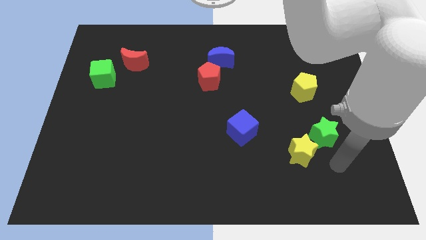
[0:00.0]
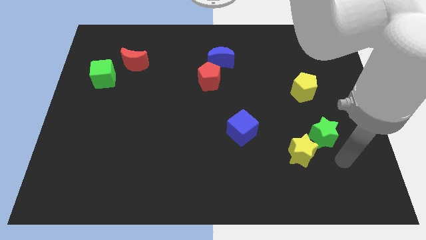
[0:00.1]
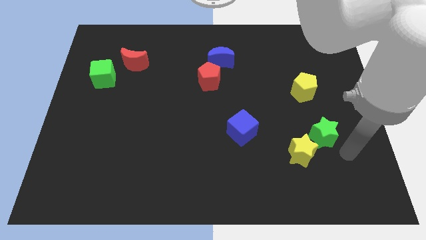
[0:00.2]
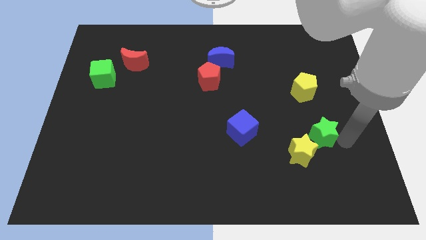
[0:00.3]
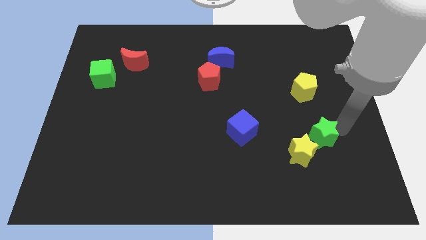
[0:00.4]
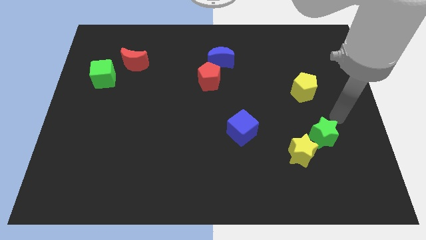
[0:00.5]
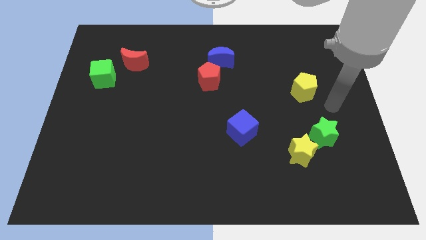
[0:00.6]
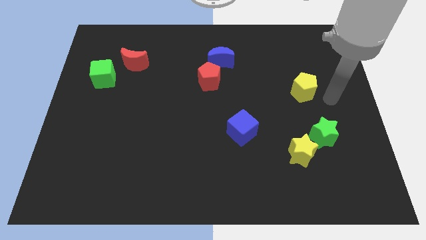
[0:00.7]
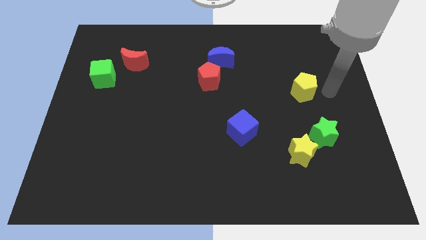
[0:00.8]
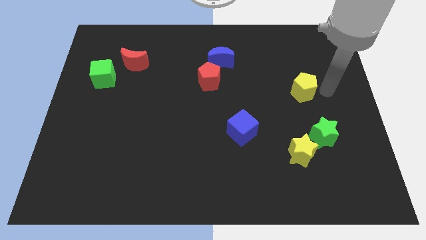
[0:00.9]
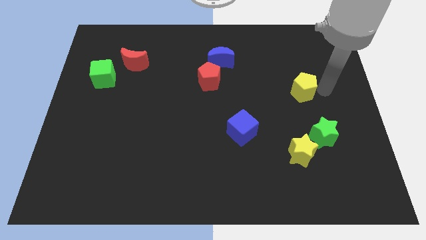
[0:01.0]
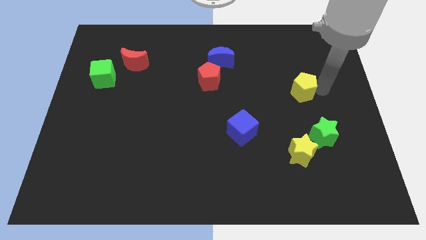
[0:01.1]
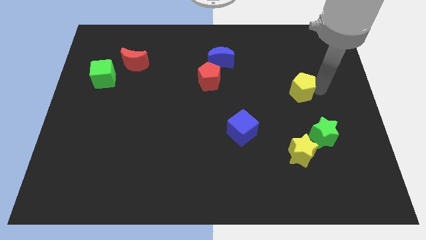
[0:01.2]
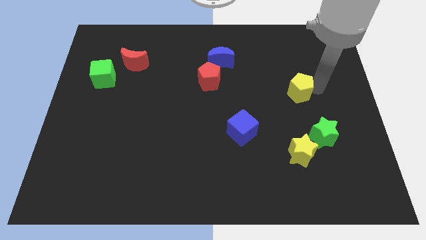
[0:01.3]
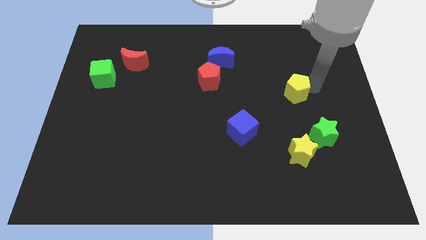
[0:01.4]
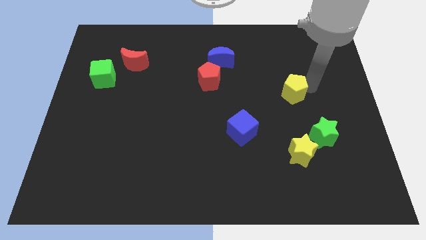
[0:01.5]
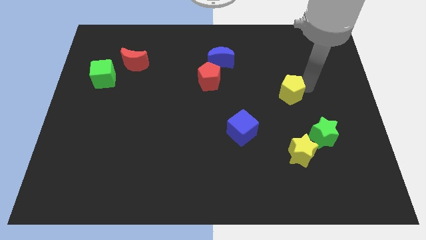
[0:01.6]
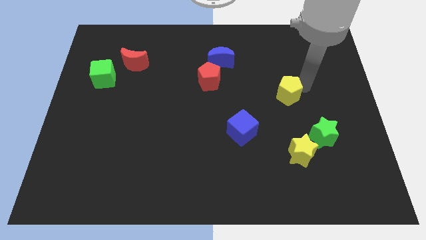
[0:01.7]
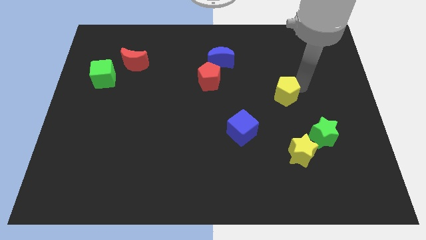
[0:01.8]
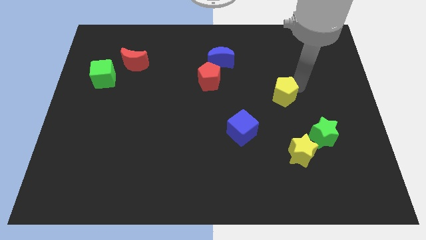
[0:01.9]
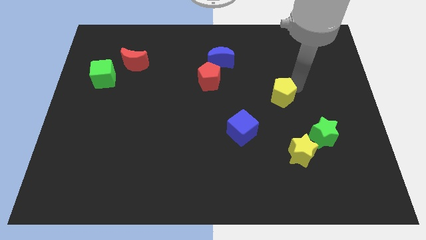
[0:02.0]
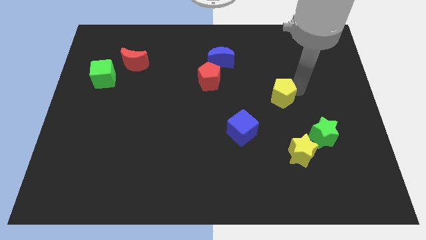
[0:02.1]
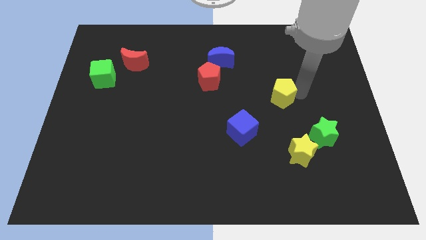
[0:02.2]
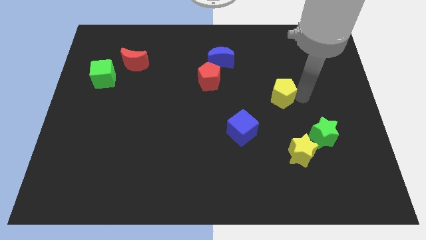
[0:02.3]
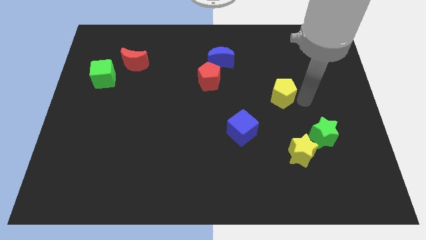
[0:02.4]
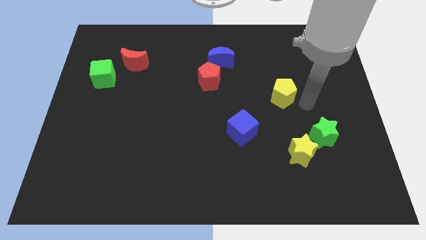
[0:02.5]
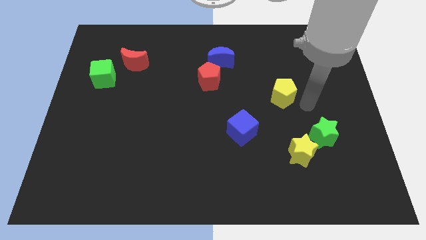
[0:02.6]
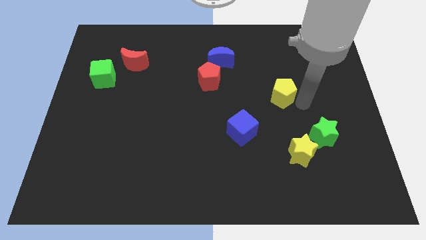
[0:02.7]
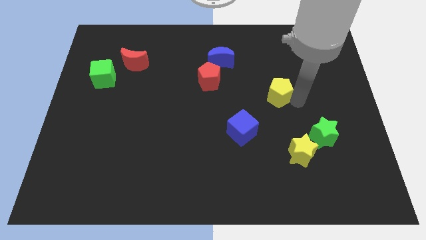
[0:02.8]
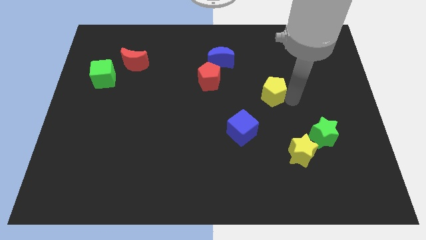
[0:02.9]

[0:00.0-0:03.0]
move the yellow pentagon to the left a bit

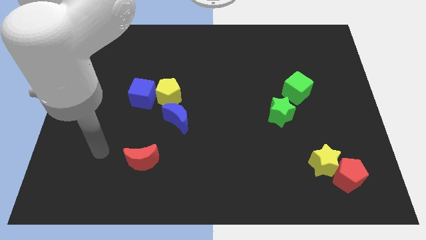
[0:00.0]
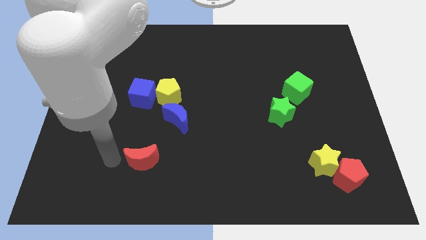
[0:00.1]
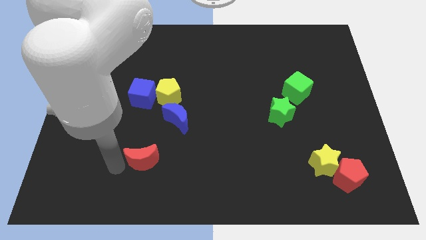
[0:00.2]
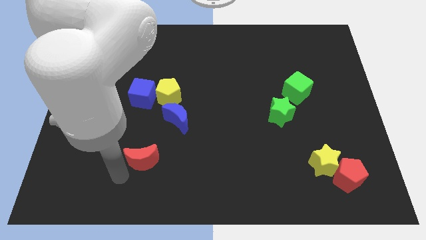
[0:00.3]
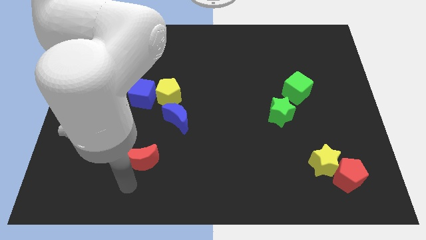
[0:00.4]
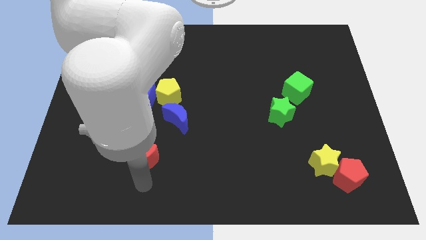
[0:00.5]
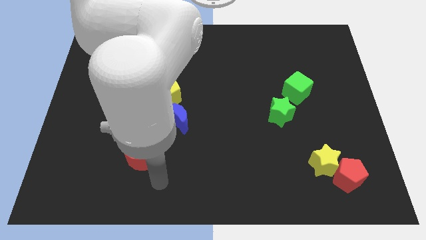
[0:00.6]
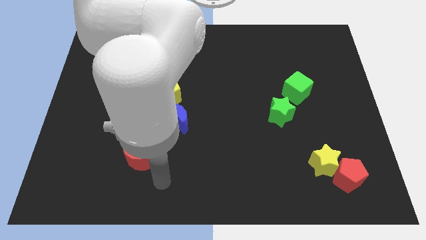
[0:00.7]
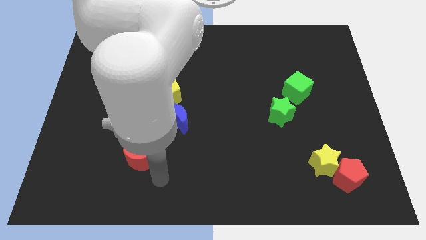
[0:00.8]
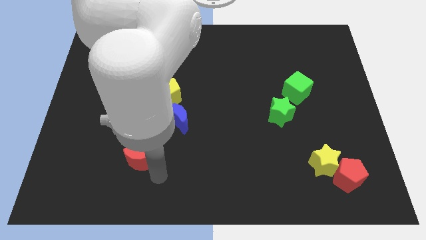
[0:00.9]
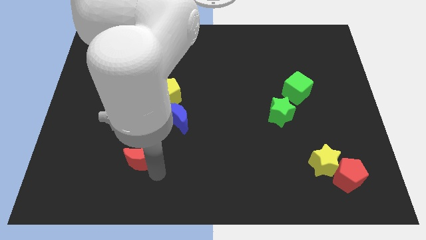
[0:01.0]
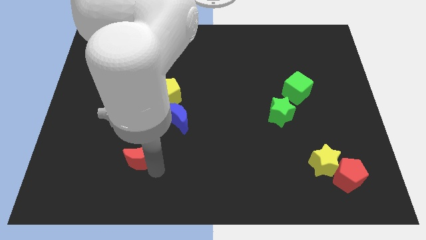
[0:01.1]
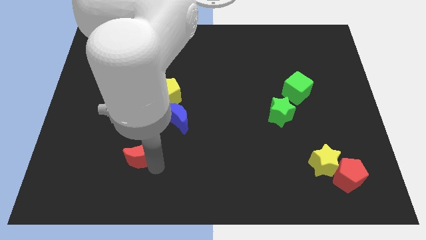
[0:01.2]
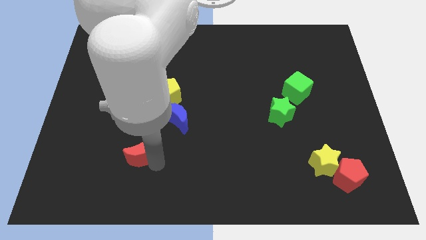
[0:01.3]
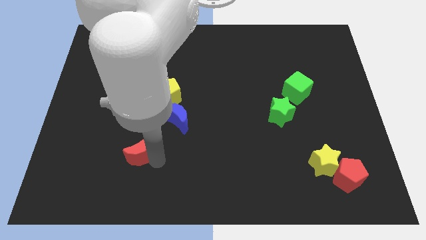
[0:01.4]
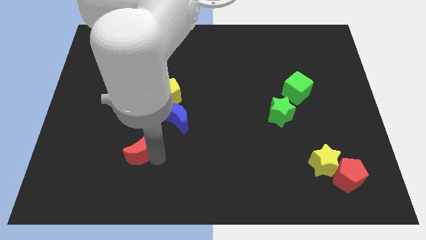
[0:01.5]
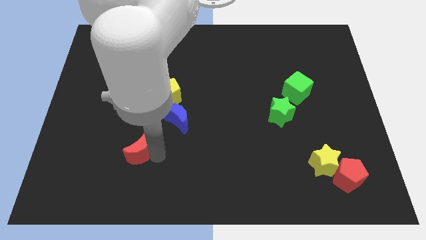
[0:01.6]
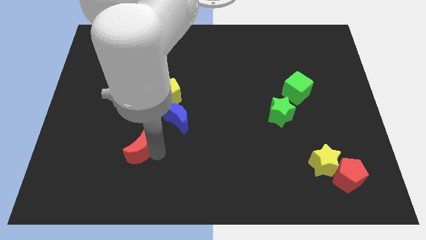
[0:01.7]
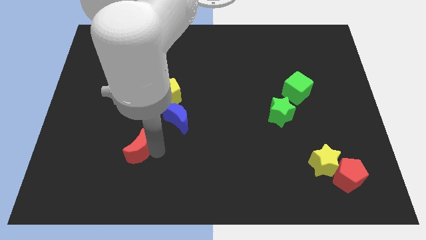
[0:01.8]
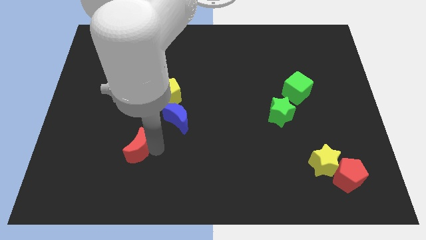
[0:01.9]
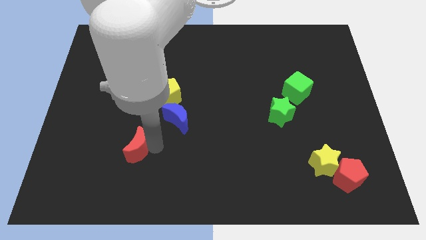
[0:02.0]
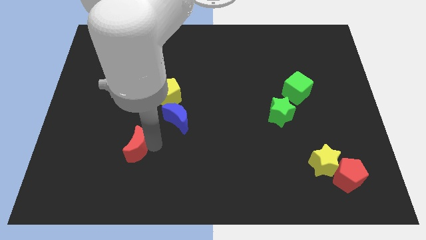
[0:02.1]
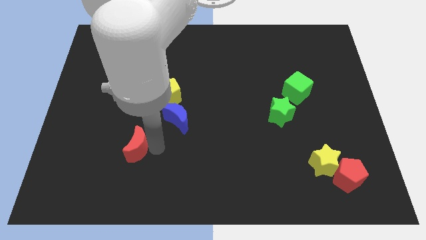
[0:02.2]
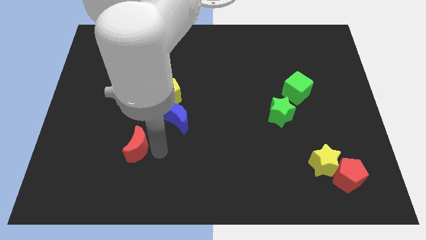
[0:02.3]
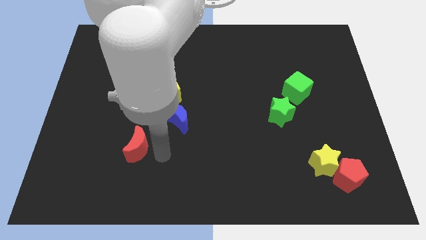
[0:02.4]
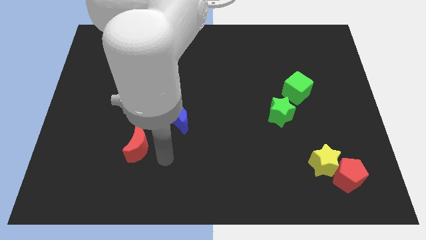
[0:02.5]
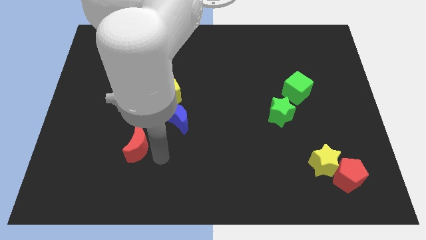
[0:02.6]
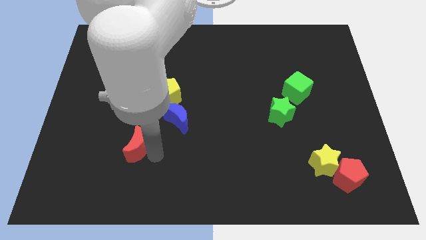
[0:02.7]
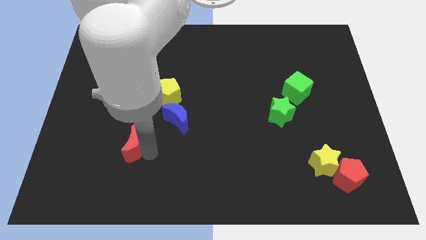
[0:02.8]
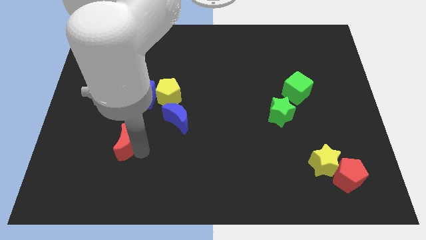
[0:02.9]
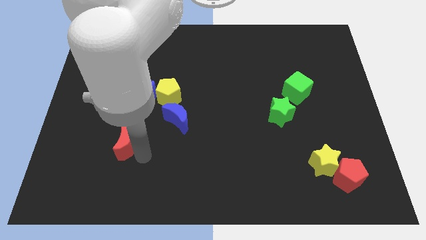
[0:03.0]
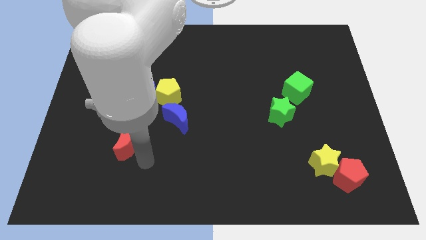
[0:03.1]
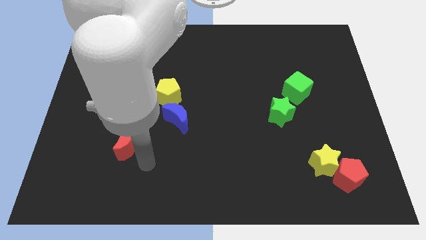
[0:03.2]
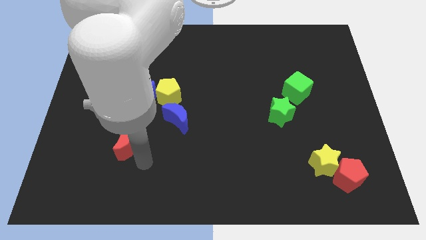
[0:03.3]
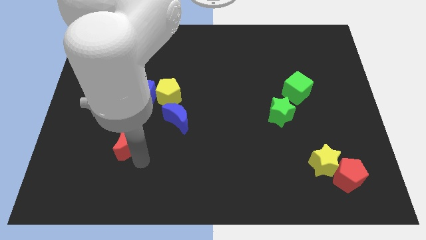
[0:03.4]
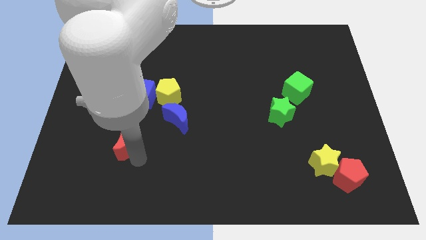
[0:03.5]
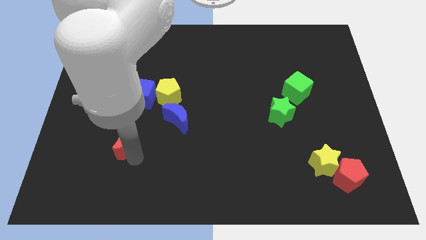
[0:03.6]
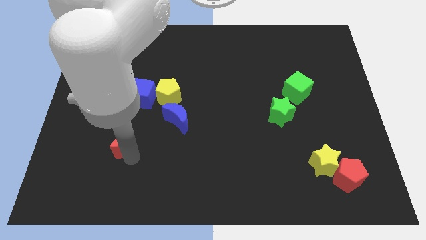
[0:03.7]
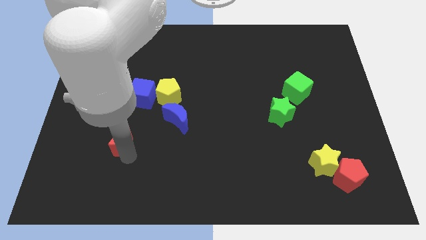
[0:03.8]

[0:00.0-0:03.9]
slightly push the red moon upwards and left diagonally

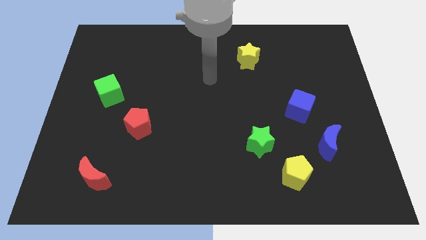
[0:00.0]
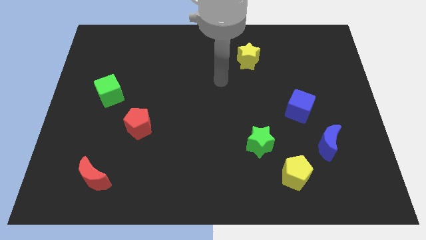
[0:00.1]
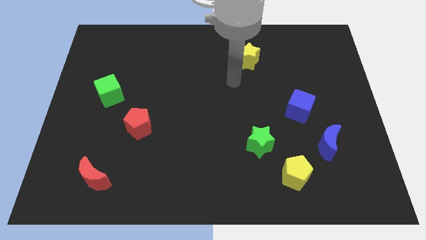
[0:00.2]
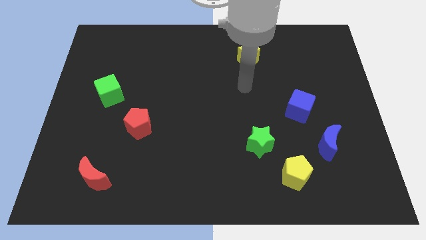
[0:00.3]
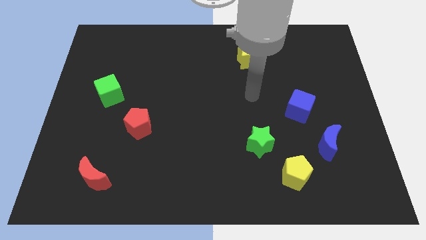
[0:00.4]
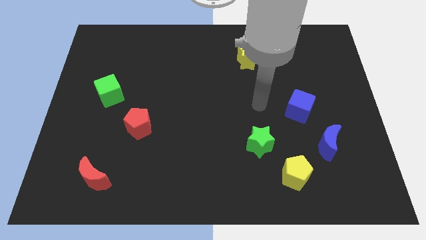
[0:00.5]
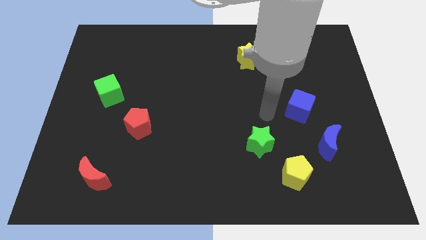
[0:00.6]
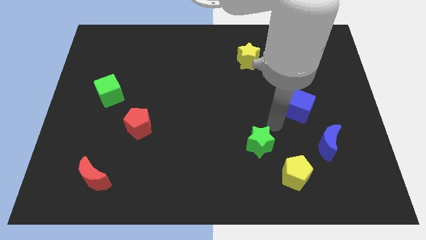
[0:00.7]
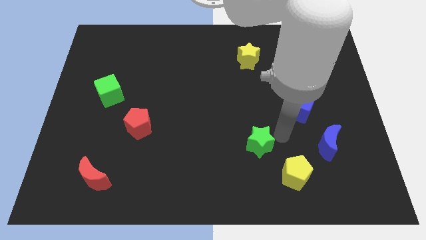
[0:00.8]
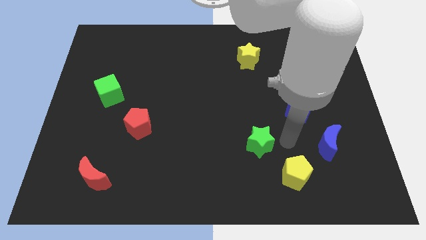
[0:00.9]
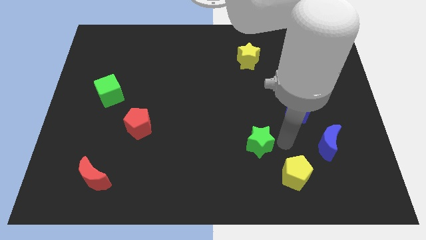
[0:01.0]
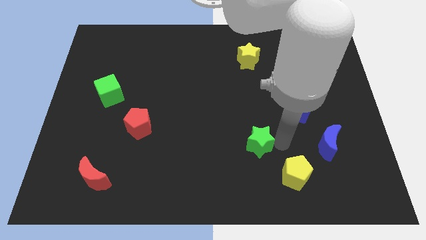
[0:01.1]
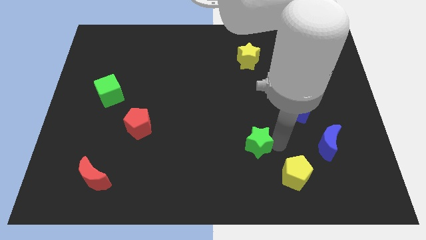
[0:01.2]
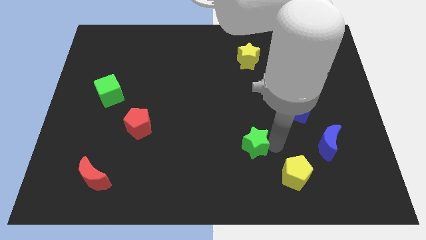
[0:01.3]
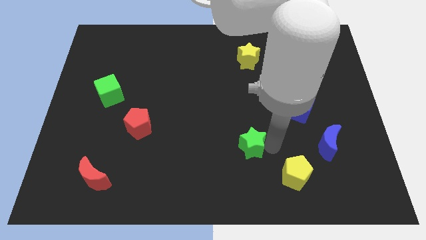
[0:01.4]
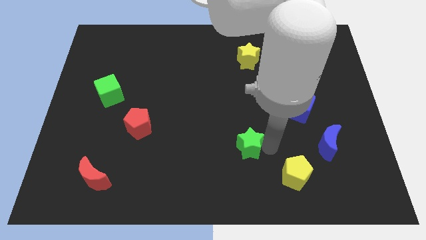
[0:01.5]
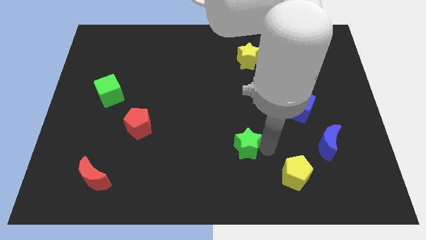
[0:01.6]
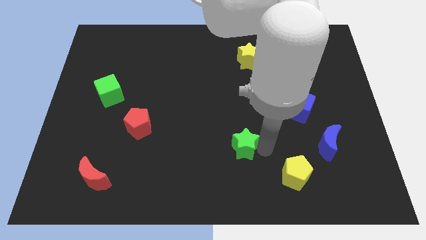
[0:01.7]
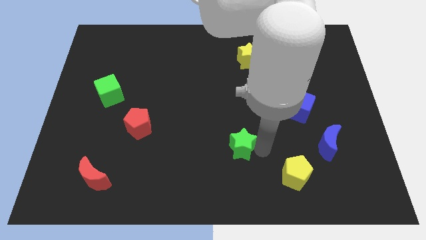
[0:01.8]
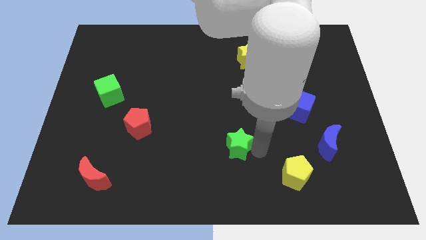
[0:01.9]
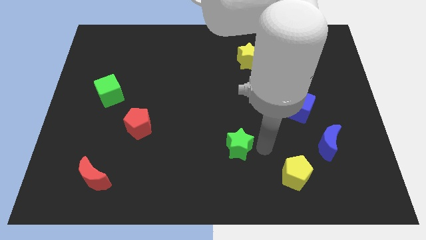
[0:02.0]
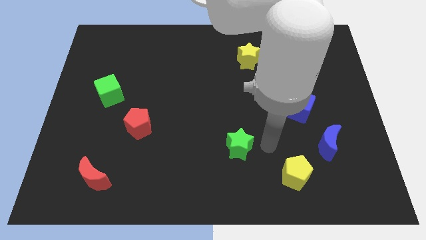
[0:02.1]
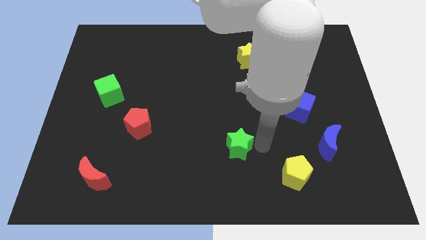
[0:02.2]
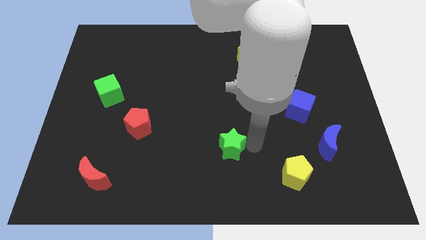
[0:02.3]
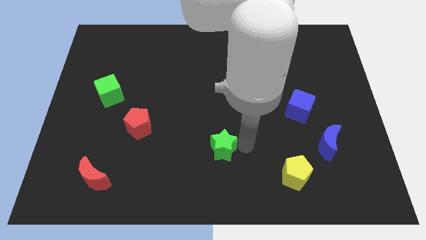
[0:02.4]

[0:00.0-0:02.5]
push the green star left somewhat
